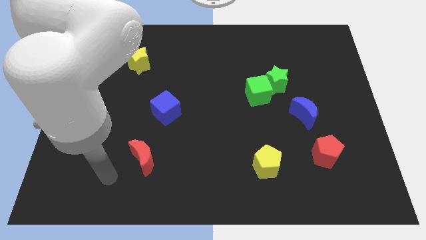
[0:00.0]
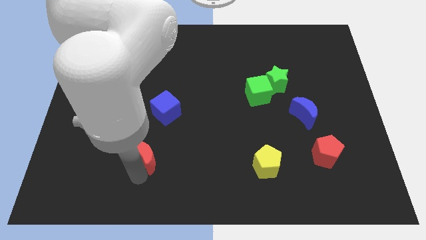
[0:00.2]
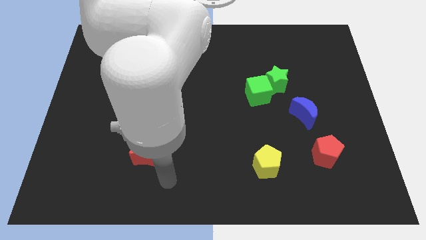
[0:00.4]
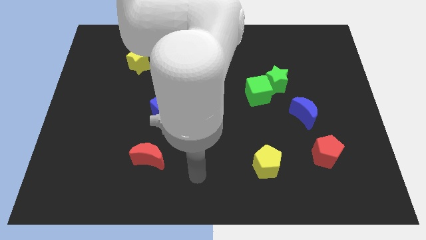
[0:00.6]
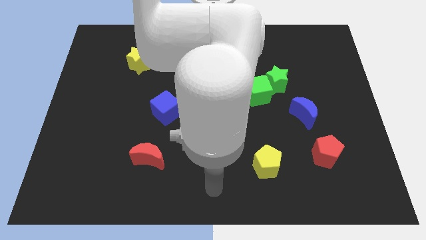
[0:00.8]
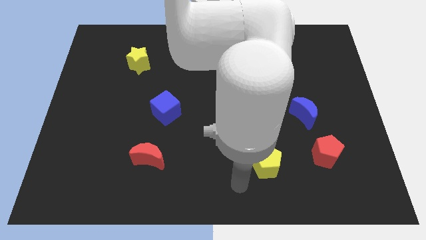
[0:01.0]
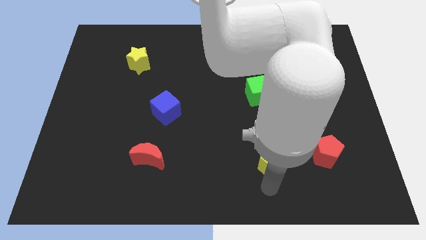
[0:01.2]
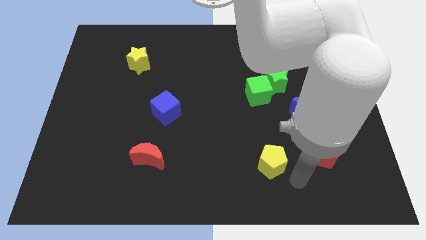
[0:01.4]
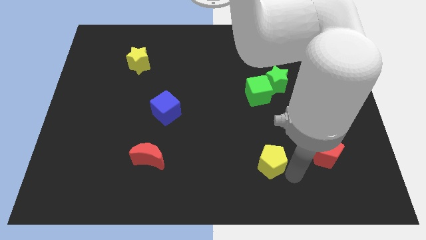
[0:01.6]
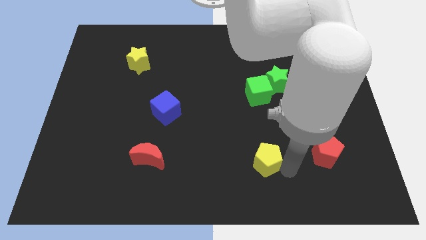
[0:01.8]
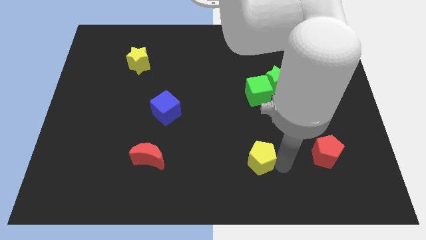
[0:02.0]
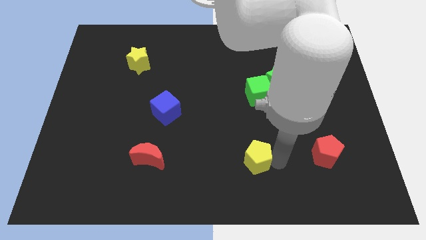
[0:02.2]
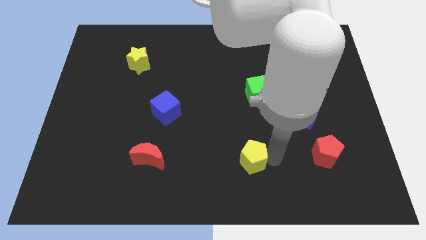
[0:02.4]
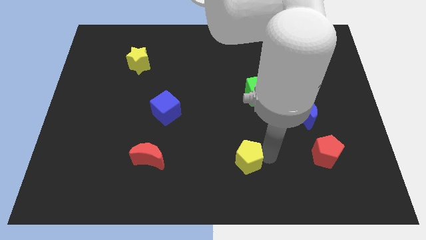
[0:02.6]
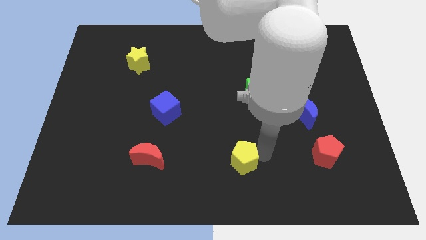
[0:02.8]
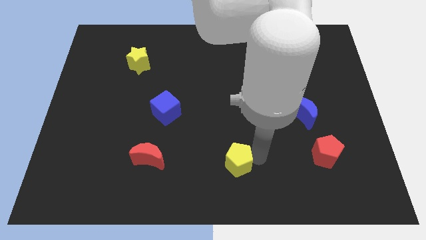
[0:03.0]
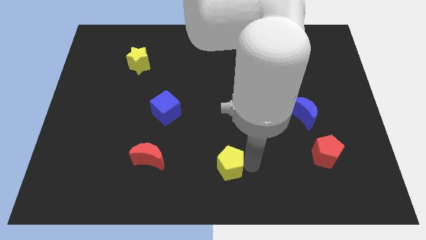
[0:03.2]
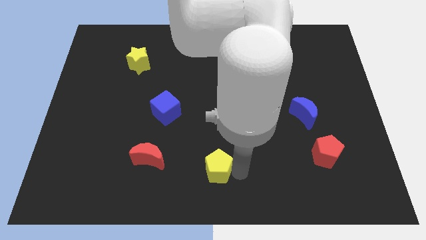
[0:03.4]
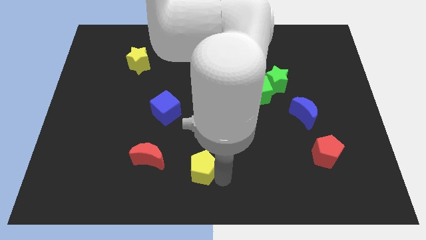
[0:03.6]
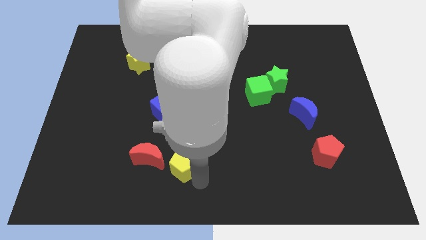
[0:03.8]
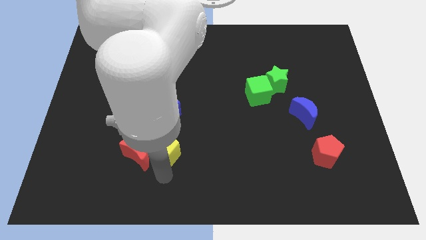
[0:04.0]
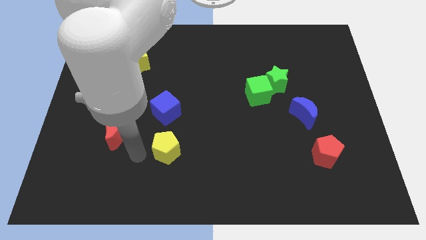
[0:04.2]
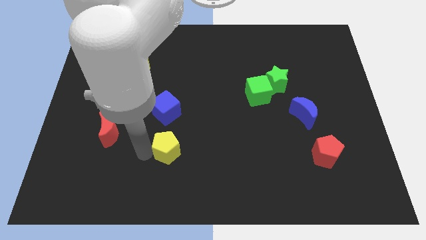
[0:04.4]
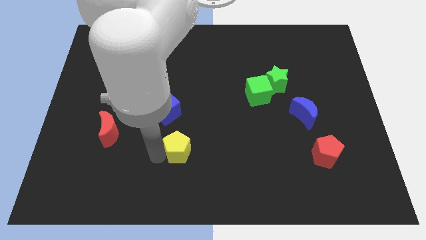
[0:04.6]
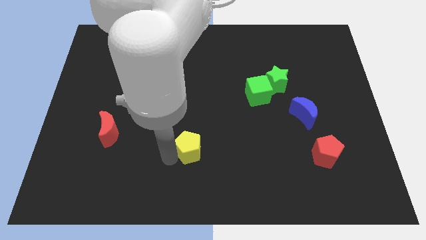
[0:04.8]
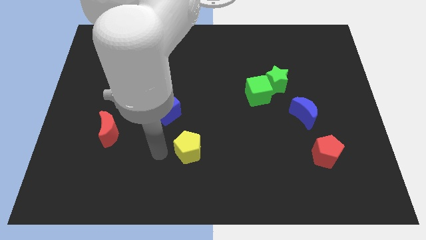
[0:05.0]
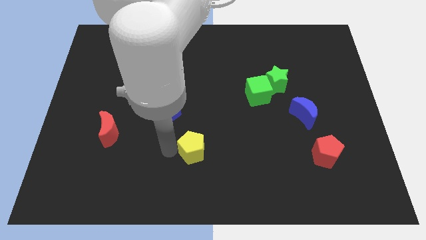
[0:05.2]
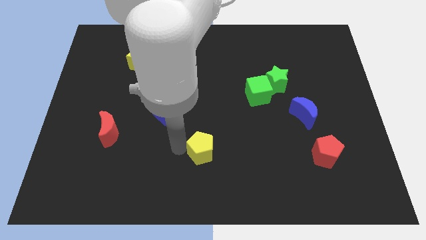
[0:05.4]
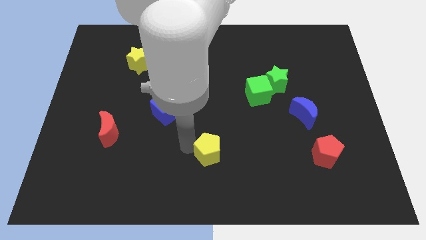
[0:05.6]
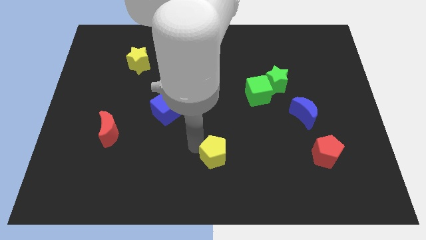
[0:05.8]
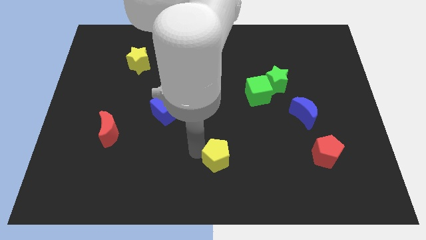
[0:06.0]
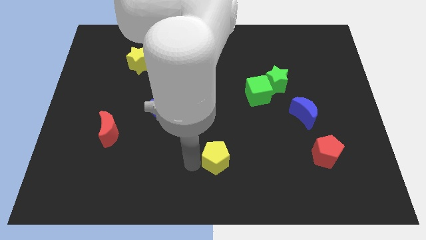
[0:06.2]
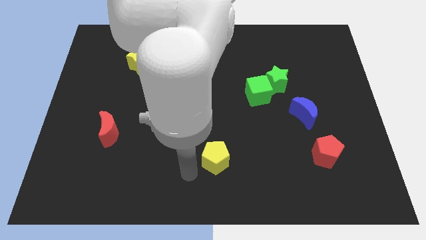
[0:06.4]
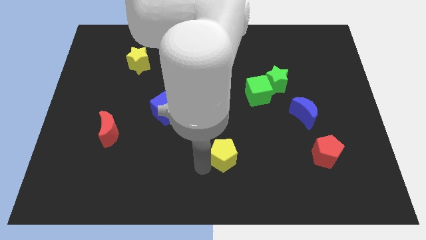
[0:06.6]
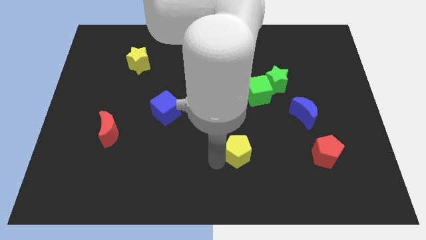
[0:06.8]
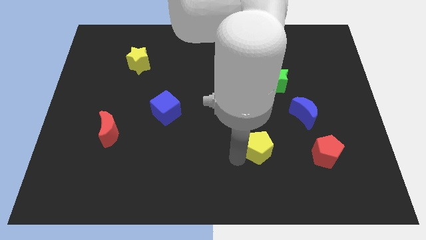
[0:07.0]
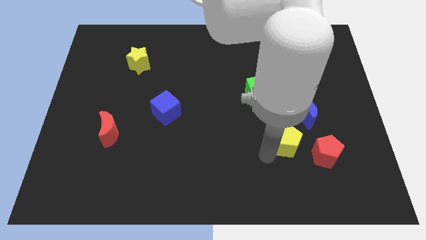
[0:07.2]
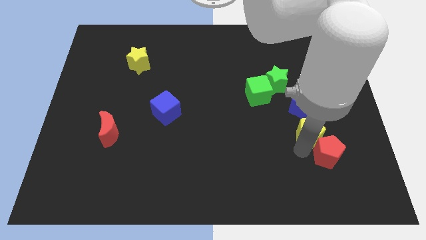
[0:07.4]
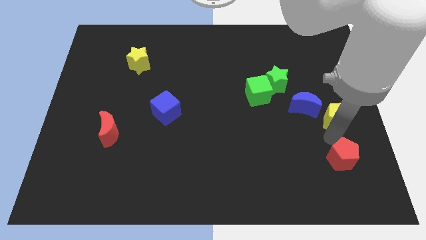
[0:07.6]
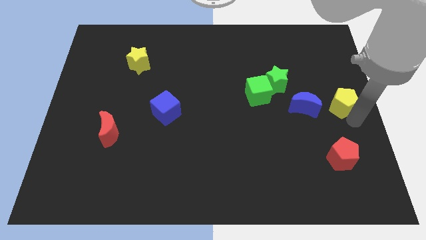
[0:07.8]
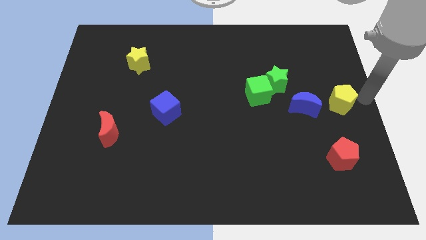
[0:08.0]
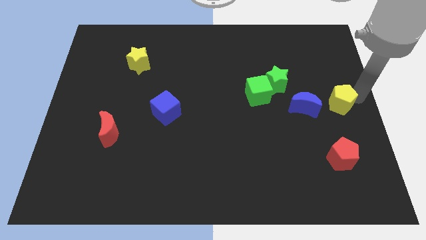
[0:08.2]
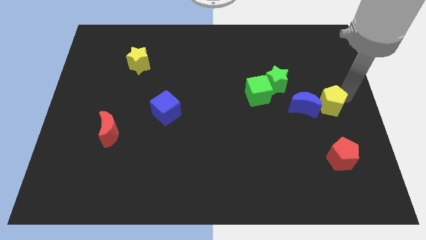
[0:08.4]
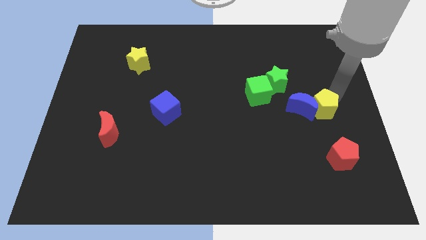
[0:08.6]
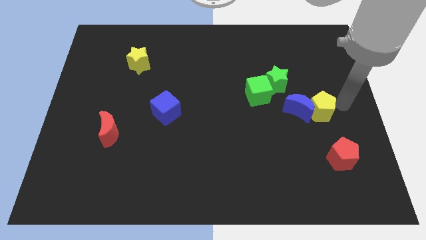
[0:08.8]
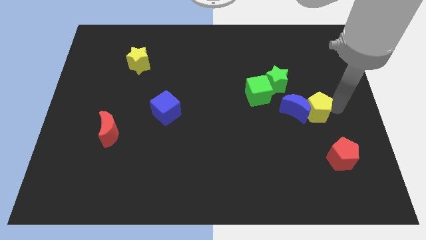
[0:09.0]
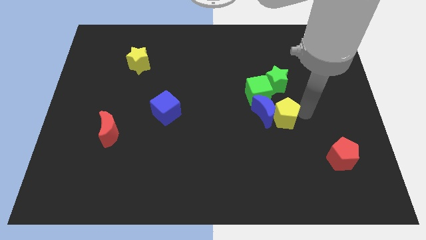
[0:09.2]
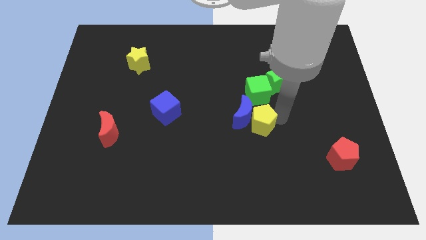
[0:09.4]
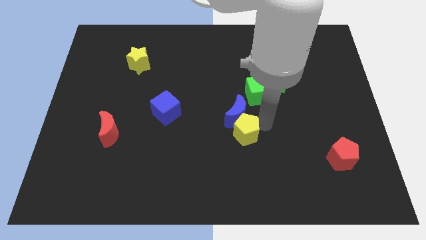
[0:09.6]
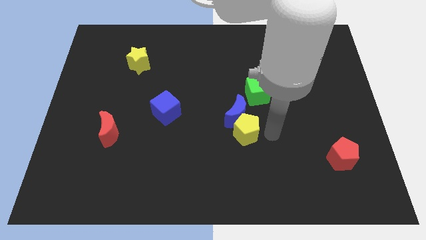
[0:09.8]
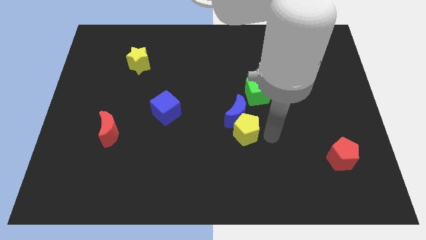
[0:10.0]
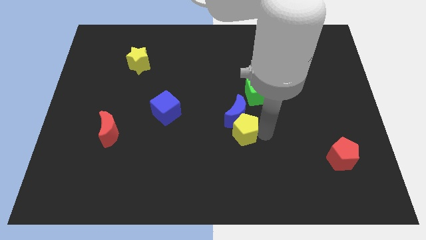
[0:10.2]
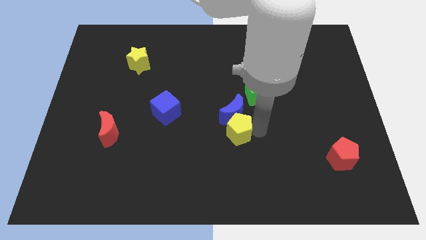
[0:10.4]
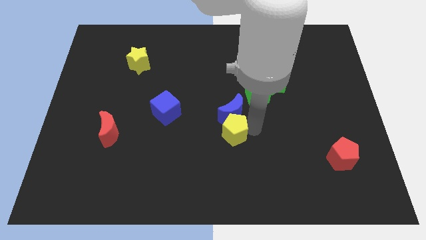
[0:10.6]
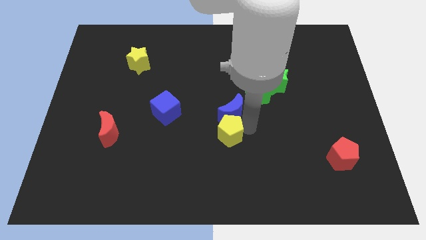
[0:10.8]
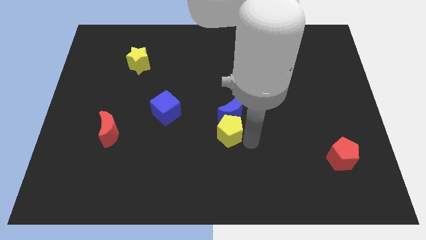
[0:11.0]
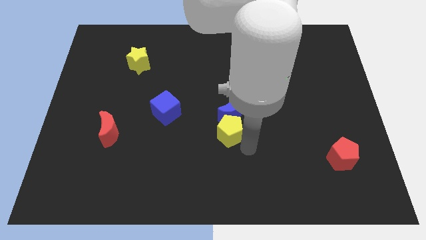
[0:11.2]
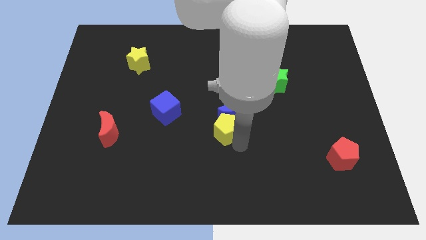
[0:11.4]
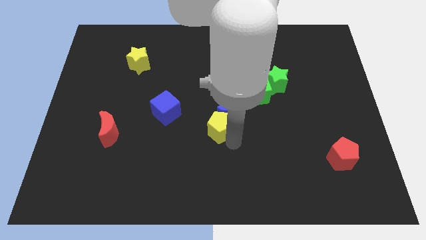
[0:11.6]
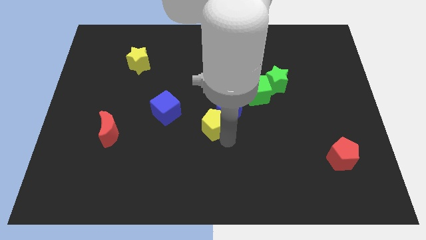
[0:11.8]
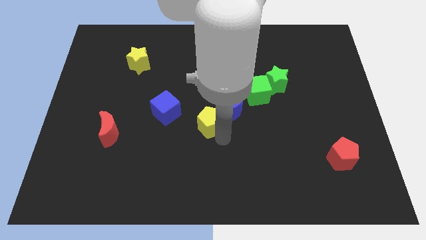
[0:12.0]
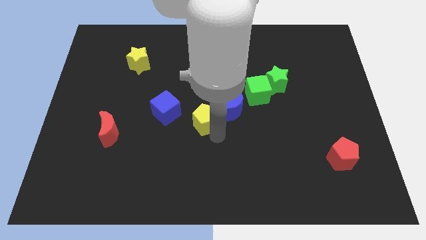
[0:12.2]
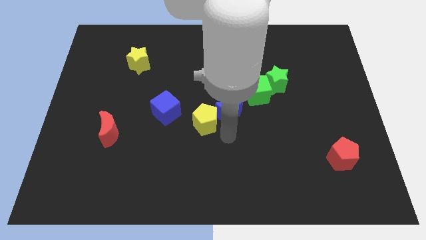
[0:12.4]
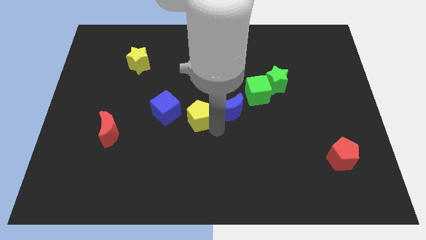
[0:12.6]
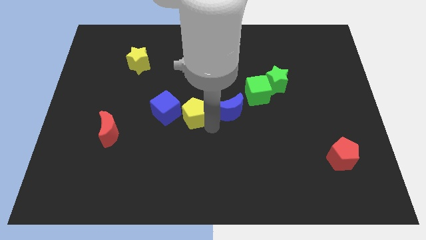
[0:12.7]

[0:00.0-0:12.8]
slide the yellow pentagon upwards and then to the left

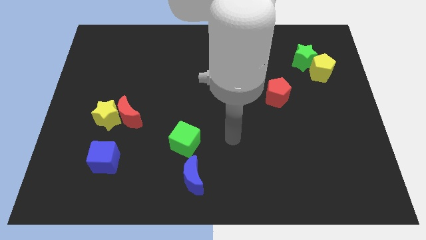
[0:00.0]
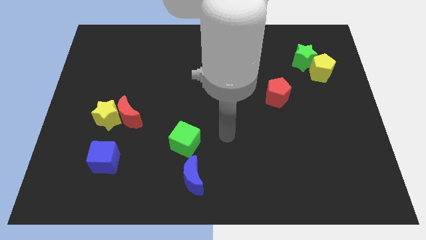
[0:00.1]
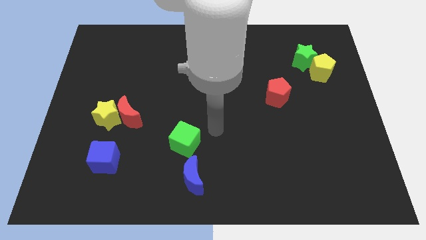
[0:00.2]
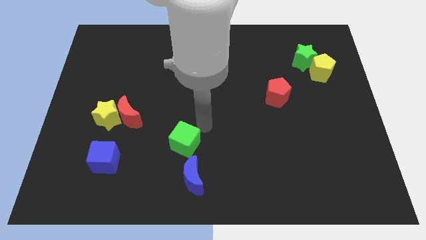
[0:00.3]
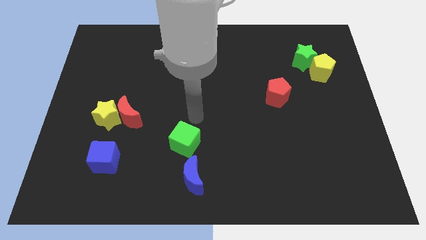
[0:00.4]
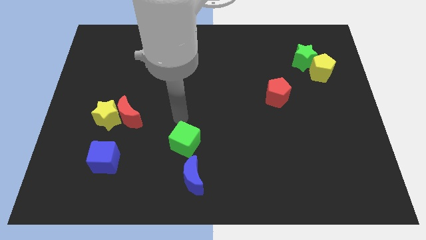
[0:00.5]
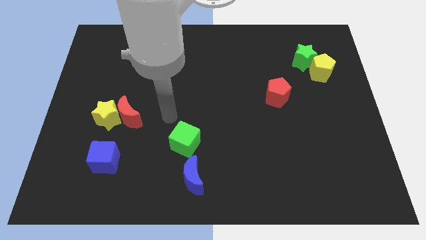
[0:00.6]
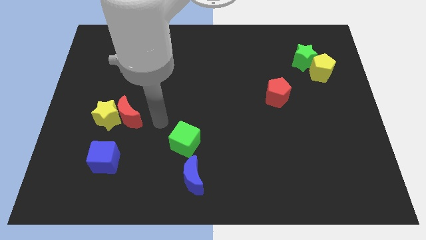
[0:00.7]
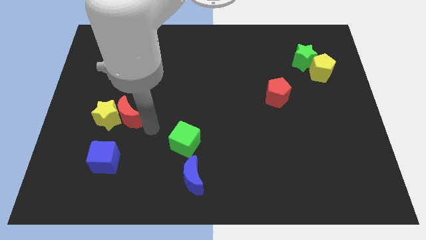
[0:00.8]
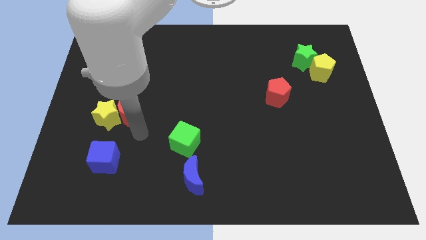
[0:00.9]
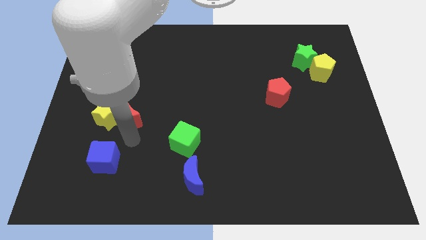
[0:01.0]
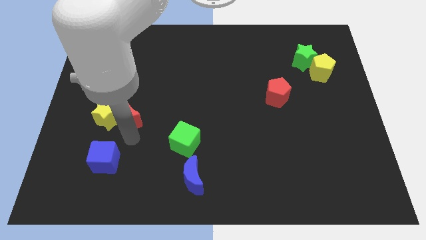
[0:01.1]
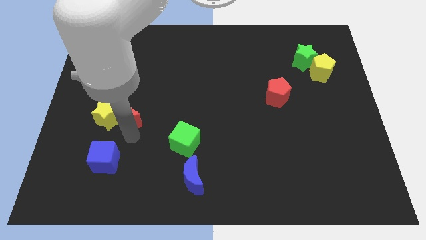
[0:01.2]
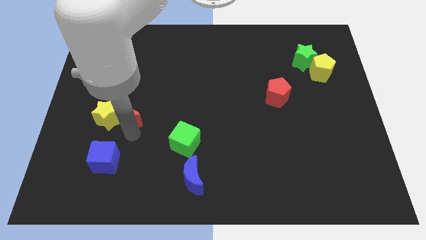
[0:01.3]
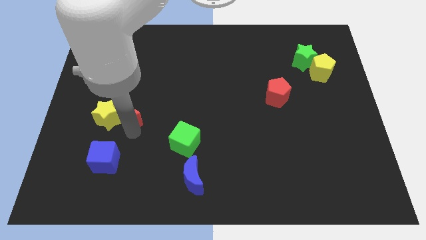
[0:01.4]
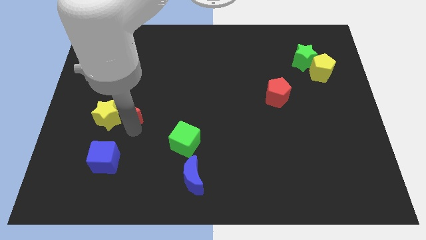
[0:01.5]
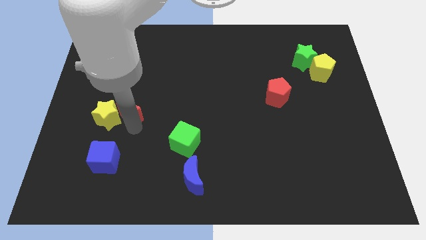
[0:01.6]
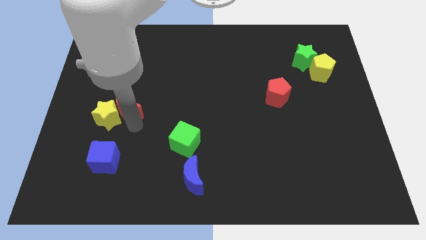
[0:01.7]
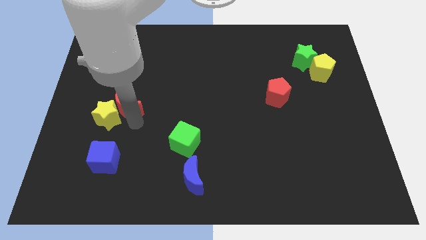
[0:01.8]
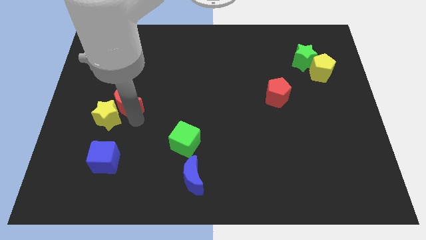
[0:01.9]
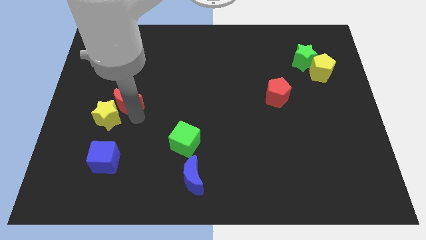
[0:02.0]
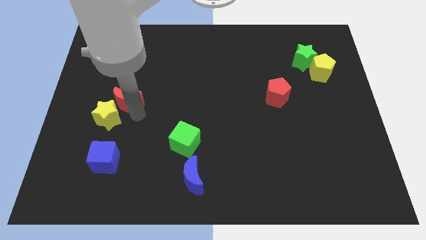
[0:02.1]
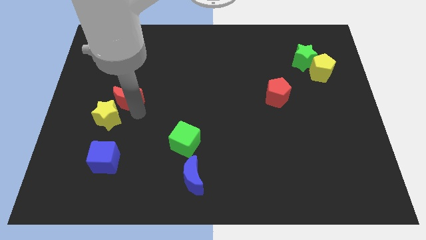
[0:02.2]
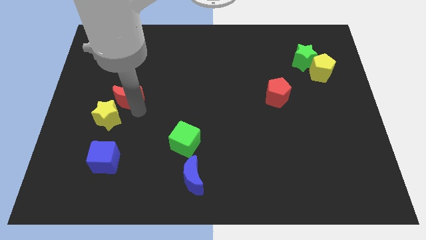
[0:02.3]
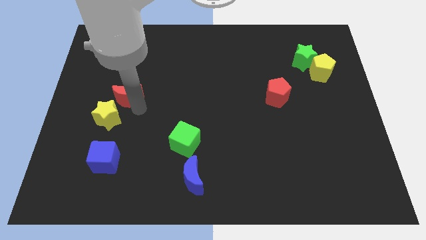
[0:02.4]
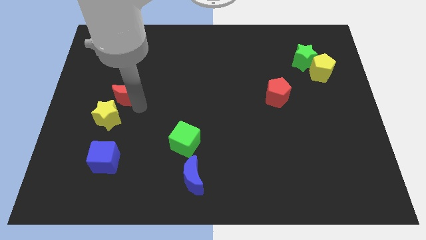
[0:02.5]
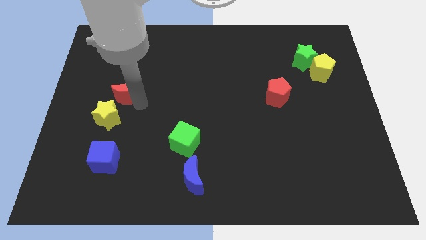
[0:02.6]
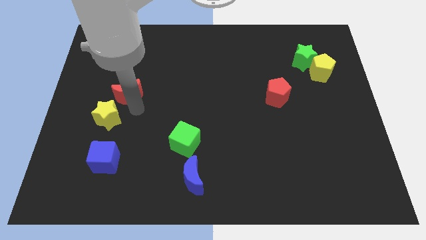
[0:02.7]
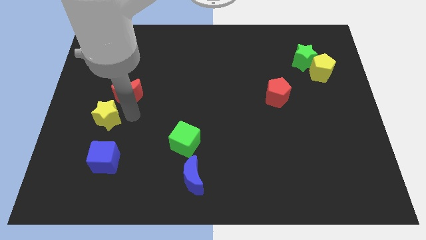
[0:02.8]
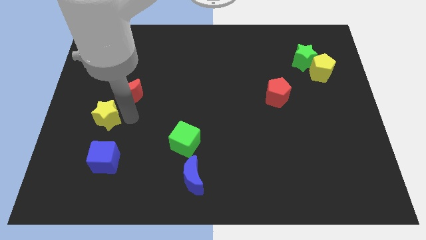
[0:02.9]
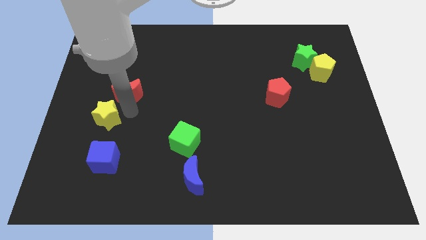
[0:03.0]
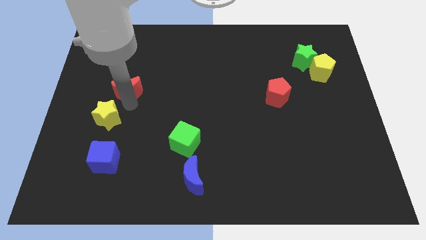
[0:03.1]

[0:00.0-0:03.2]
move the red moon a little up
